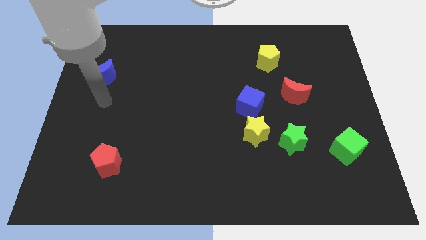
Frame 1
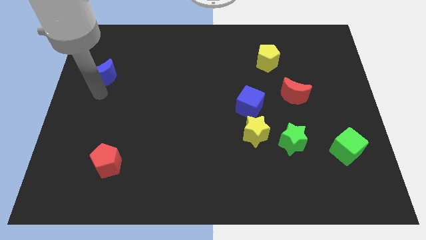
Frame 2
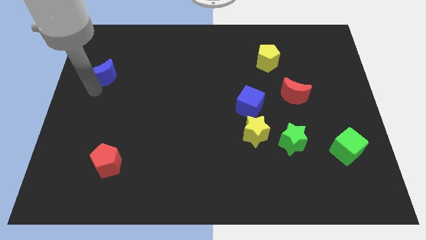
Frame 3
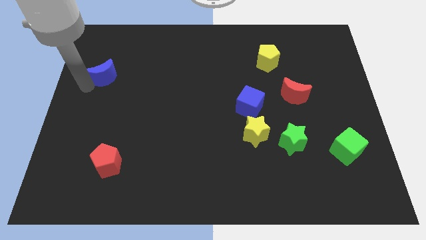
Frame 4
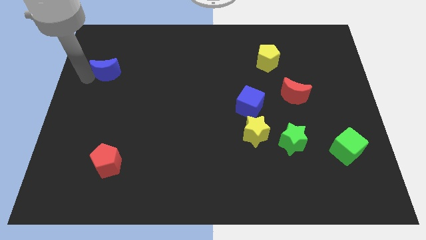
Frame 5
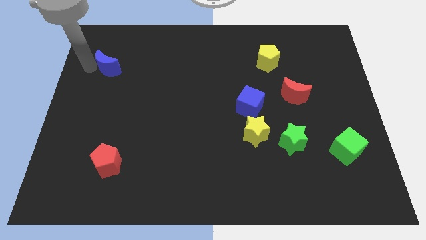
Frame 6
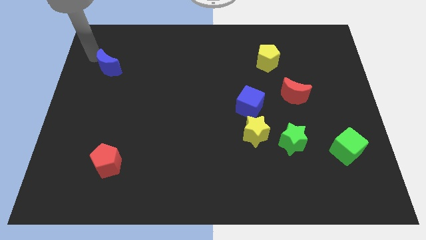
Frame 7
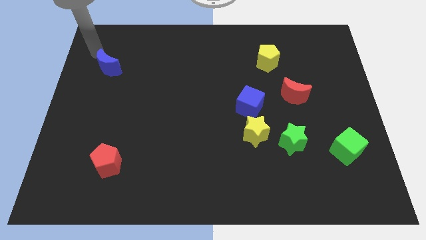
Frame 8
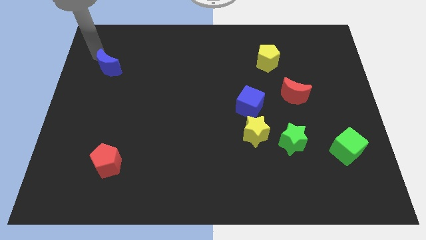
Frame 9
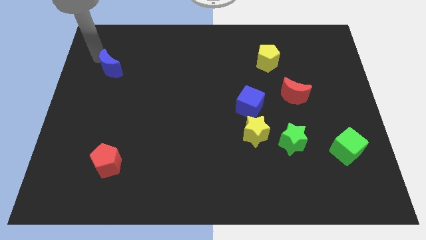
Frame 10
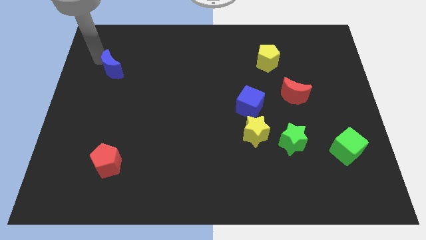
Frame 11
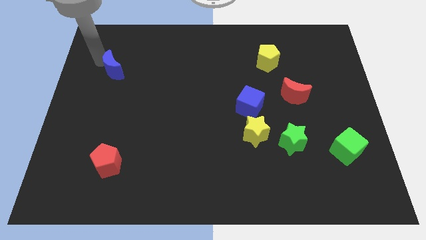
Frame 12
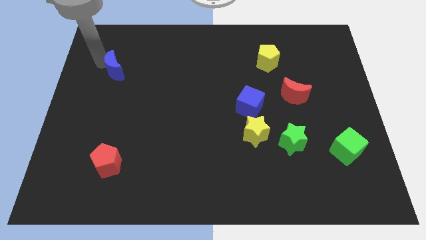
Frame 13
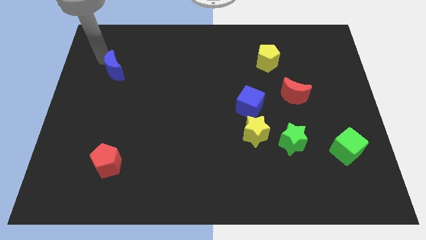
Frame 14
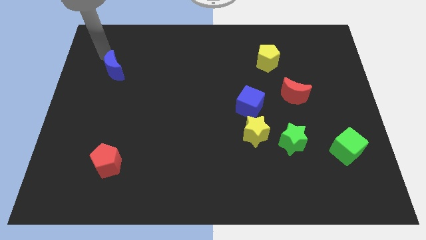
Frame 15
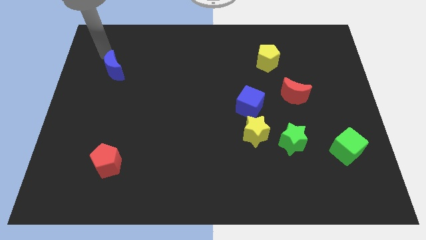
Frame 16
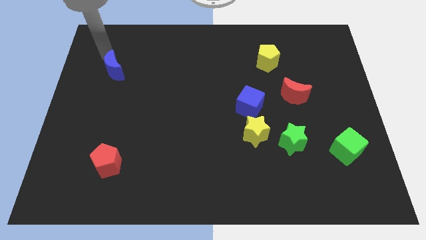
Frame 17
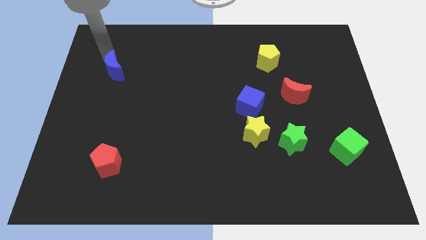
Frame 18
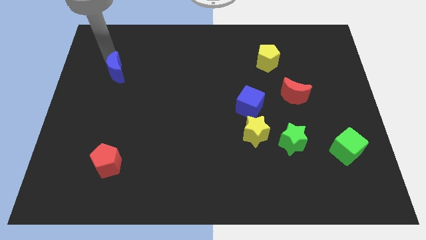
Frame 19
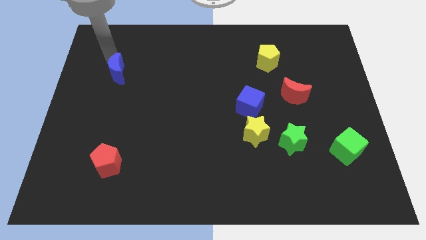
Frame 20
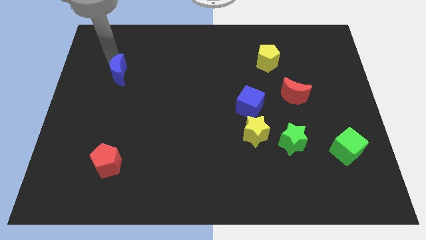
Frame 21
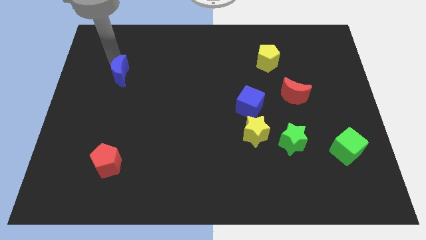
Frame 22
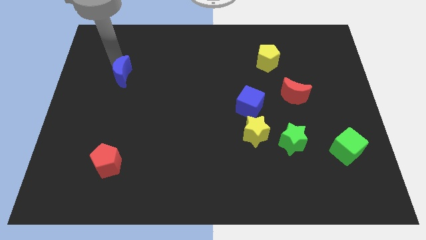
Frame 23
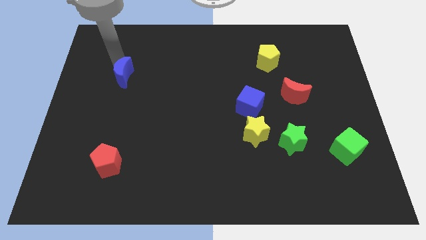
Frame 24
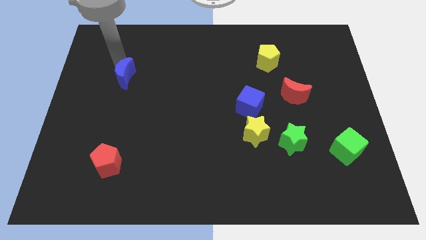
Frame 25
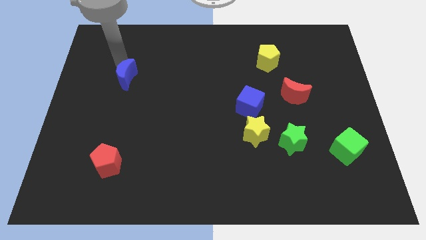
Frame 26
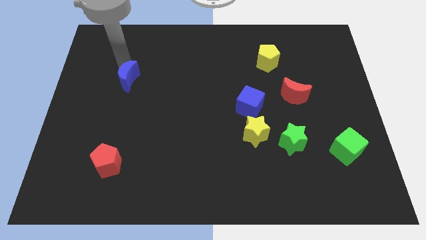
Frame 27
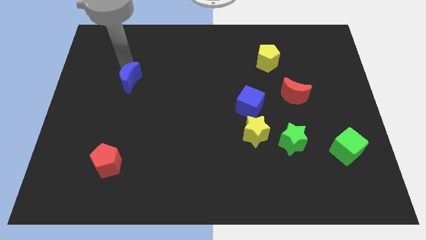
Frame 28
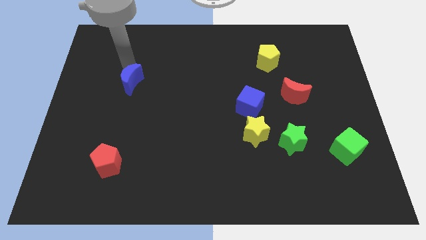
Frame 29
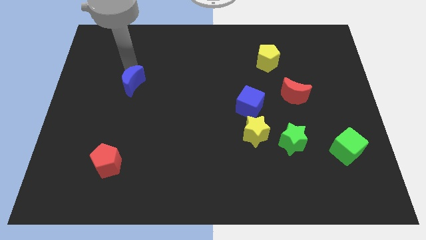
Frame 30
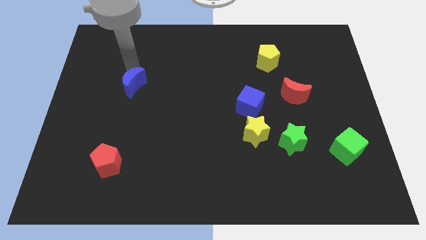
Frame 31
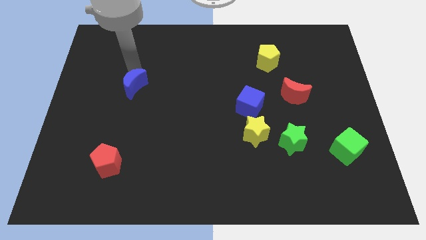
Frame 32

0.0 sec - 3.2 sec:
slide the blue moon slightly downwards and right

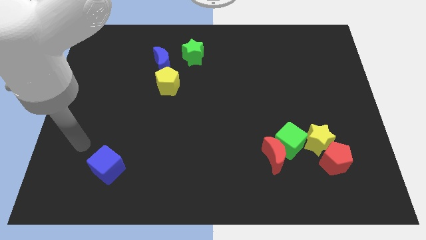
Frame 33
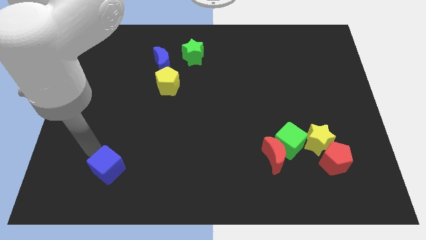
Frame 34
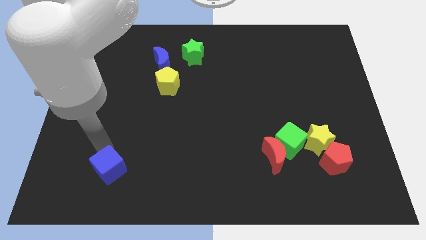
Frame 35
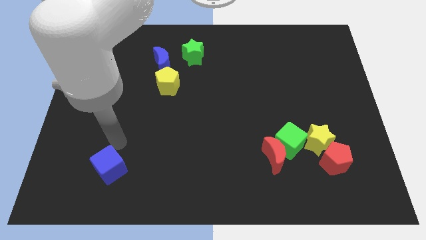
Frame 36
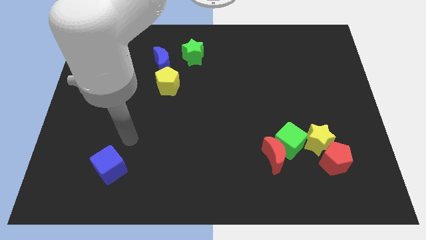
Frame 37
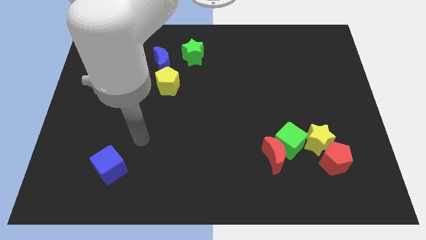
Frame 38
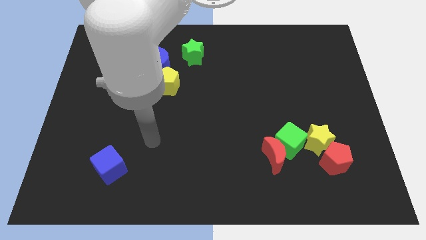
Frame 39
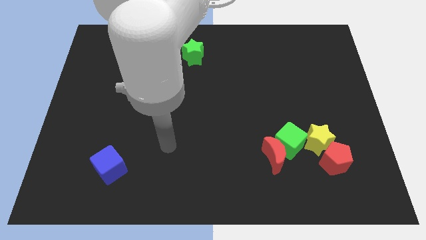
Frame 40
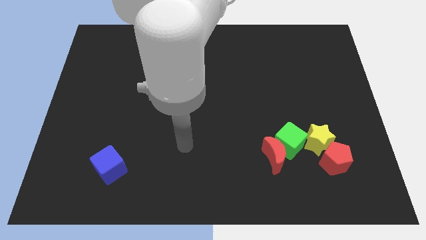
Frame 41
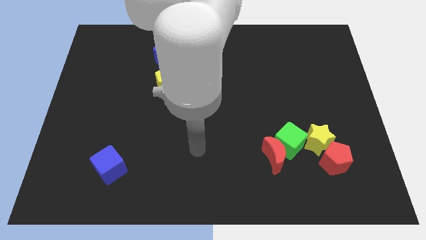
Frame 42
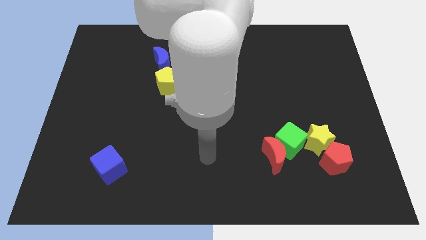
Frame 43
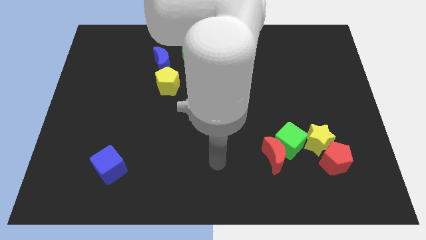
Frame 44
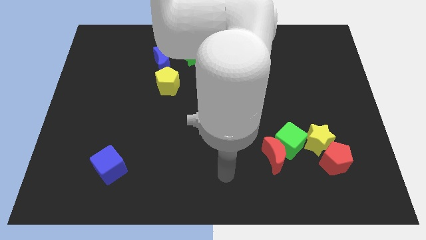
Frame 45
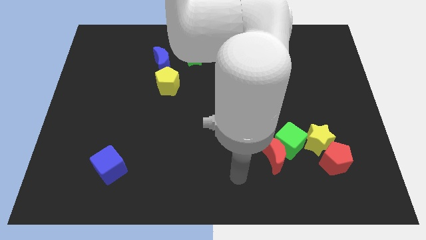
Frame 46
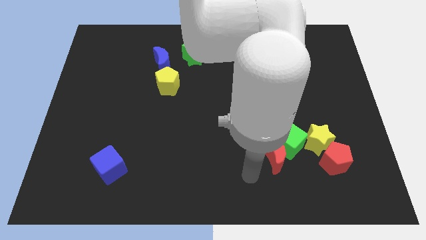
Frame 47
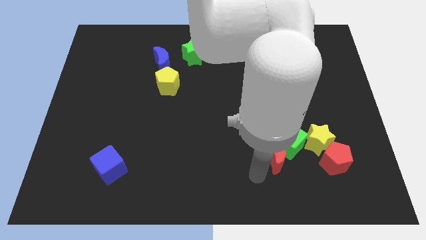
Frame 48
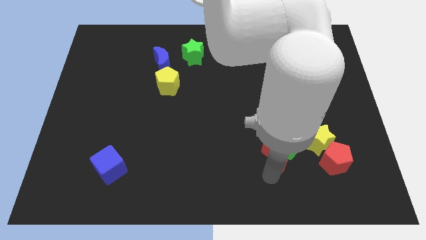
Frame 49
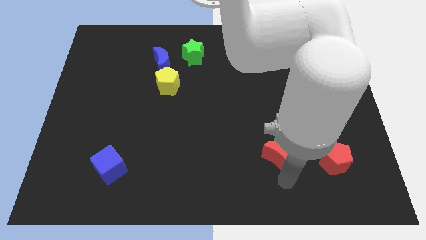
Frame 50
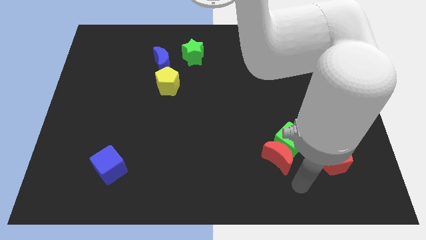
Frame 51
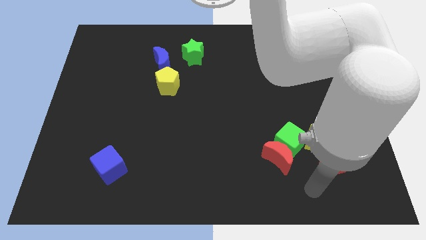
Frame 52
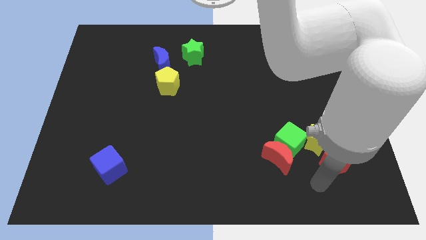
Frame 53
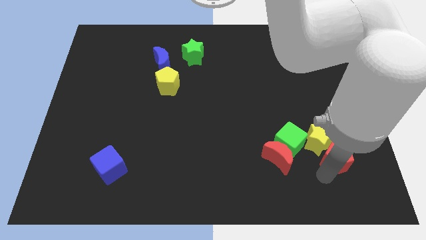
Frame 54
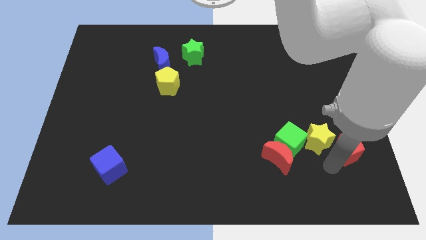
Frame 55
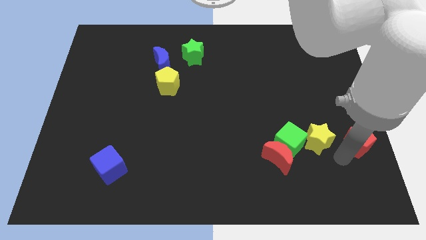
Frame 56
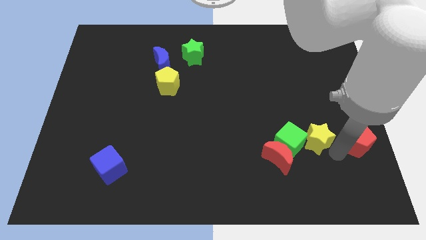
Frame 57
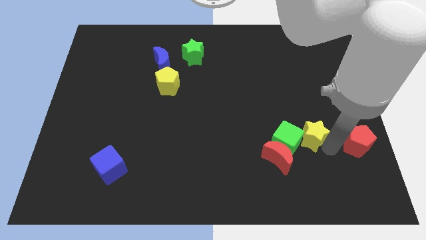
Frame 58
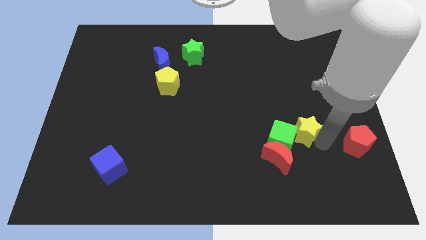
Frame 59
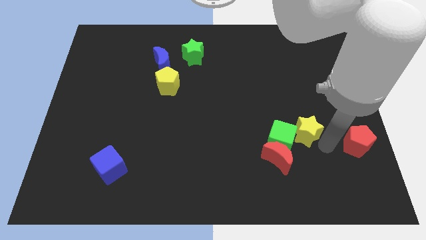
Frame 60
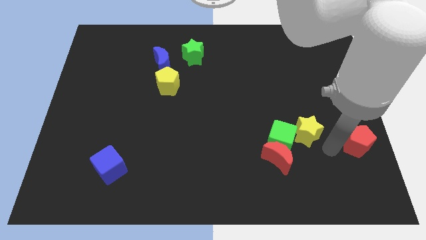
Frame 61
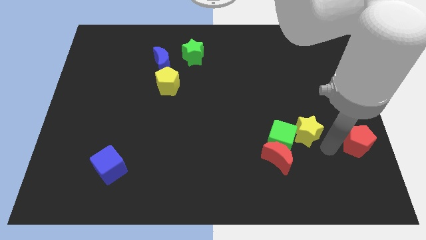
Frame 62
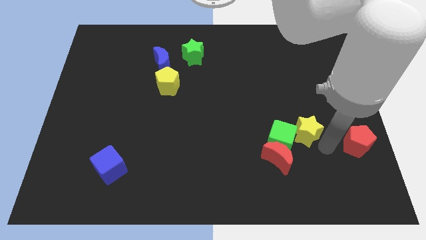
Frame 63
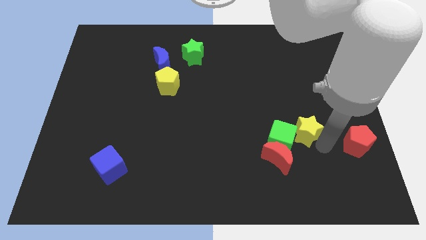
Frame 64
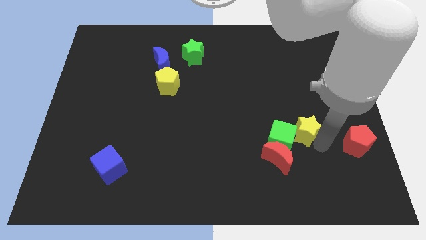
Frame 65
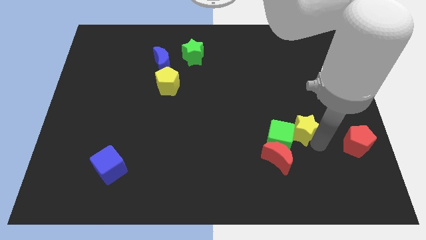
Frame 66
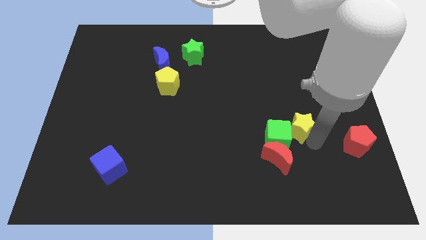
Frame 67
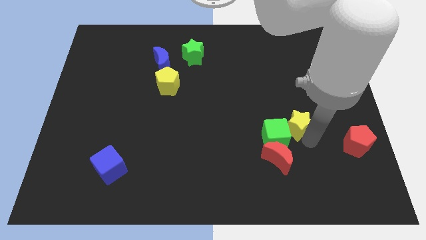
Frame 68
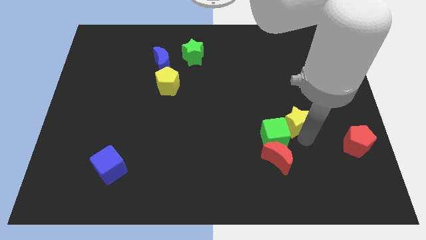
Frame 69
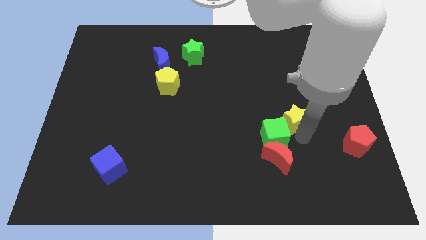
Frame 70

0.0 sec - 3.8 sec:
move the yellow star a little upwards and left

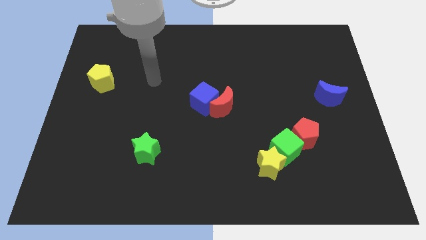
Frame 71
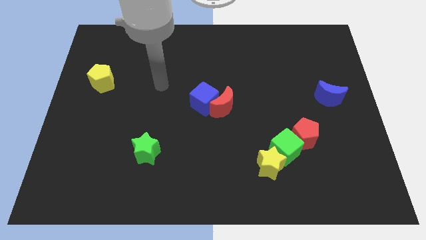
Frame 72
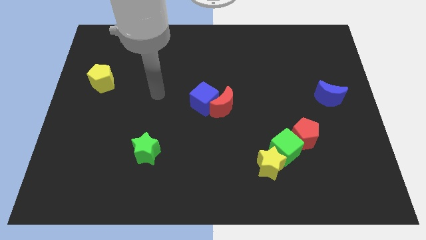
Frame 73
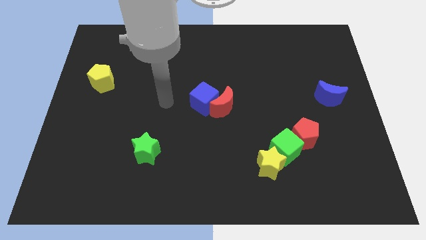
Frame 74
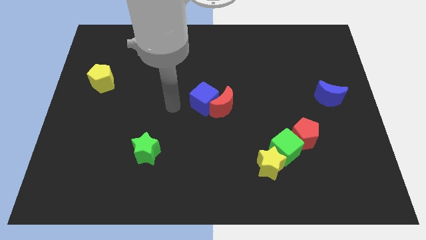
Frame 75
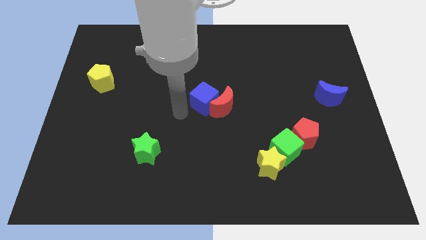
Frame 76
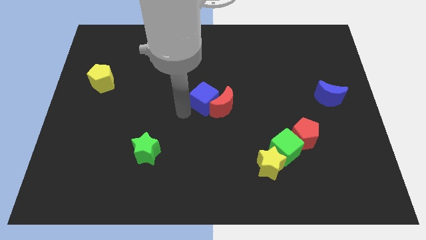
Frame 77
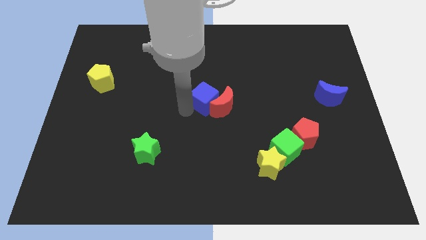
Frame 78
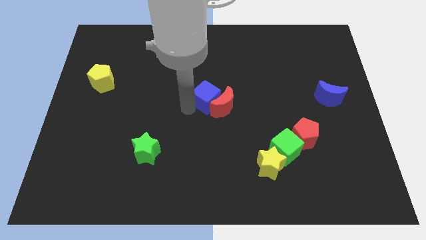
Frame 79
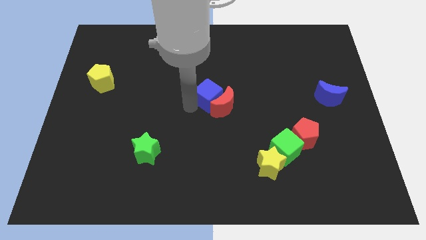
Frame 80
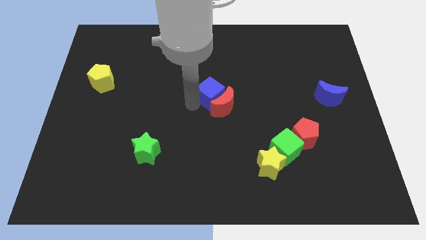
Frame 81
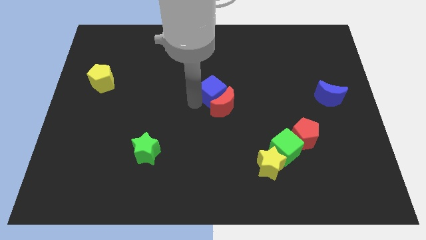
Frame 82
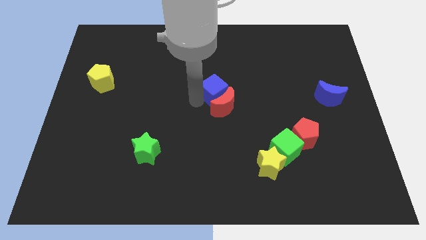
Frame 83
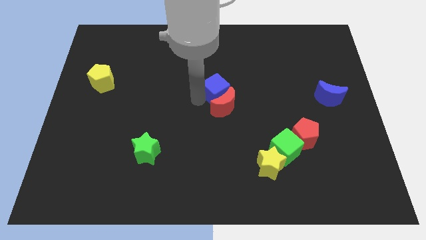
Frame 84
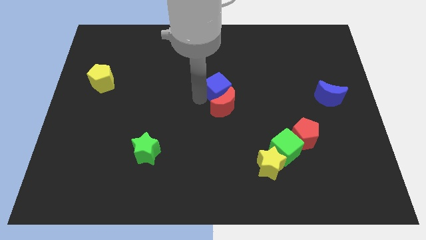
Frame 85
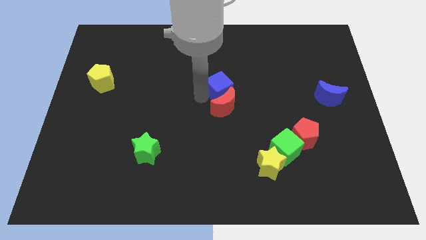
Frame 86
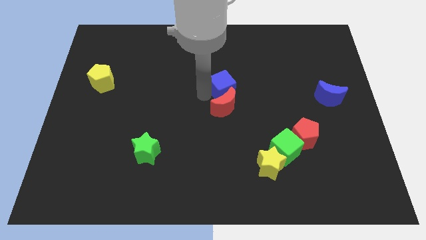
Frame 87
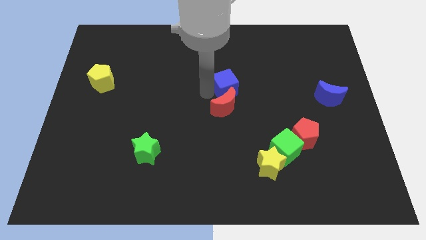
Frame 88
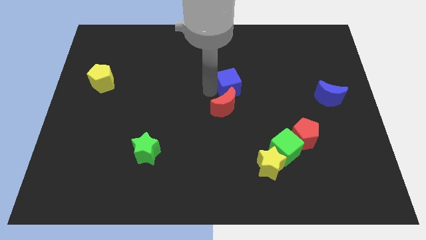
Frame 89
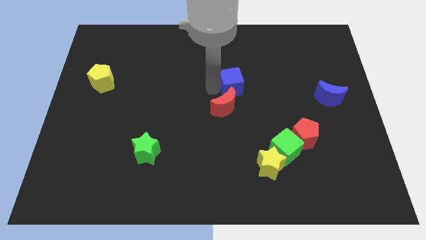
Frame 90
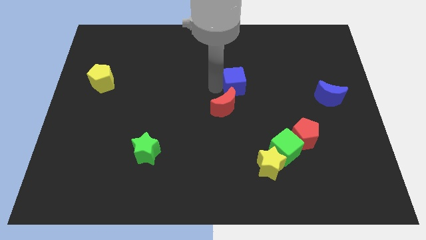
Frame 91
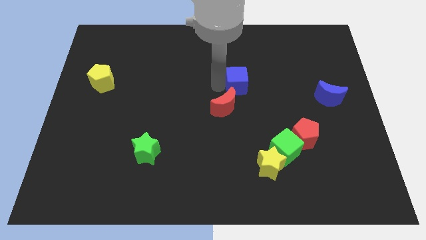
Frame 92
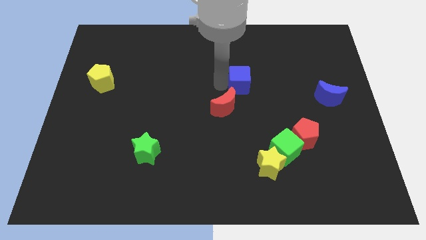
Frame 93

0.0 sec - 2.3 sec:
slightly slide the blue cube to the right
